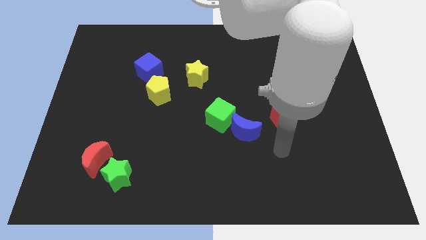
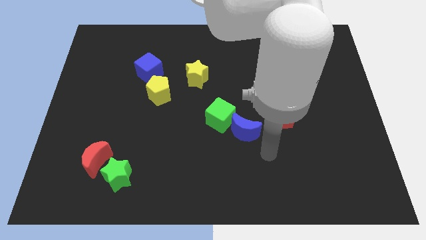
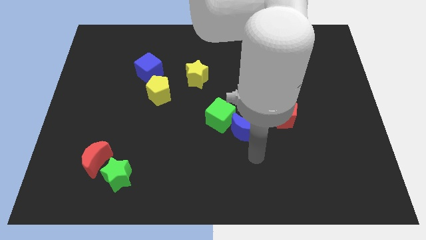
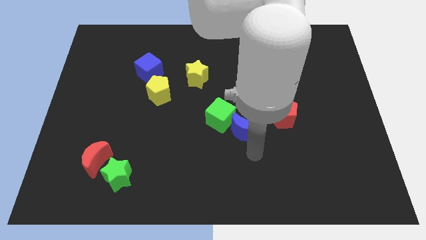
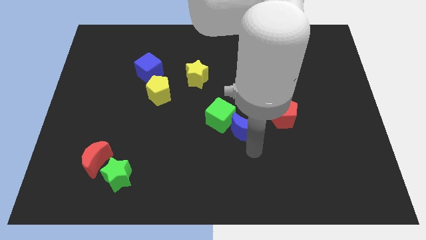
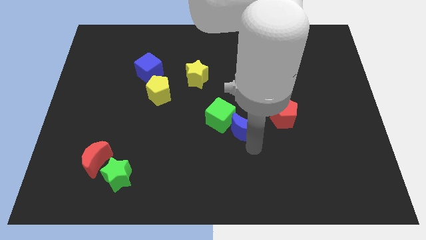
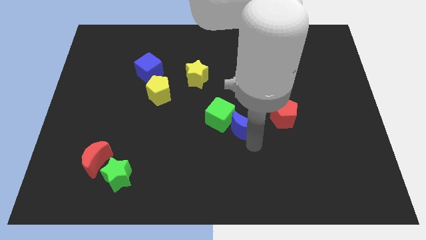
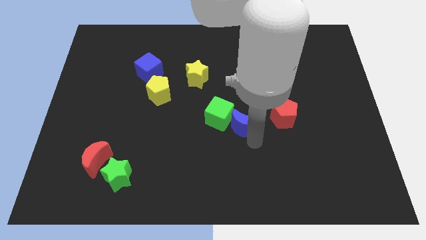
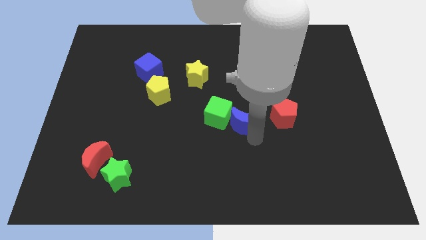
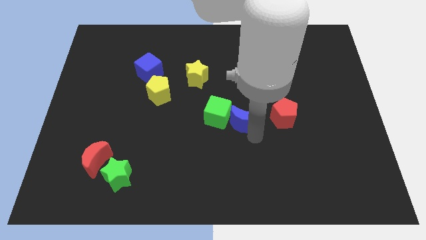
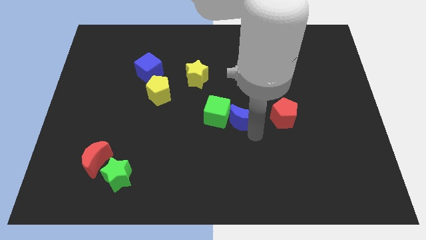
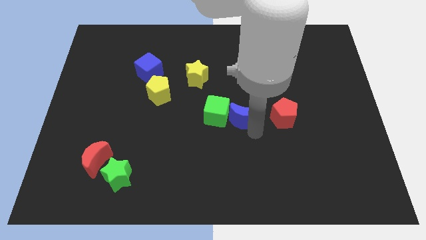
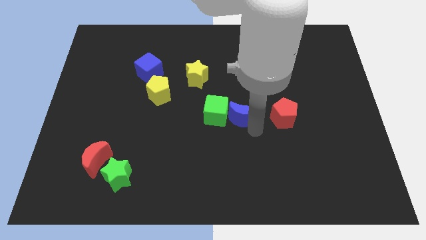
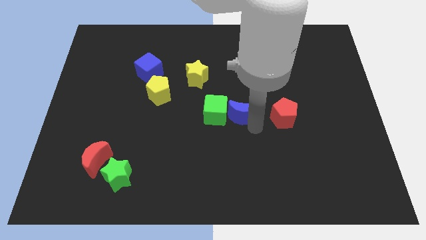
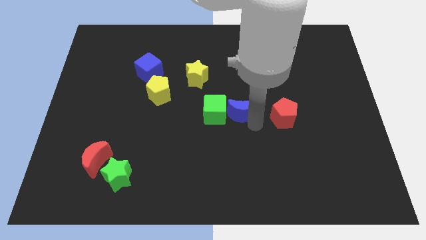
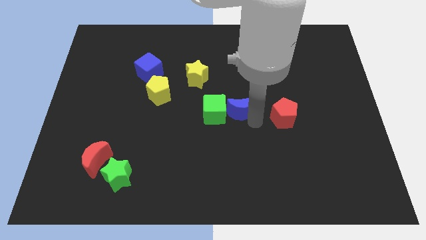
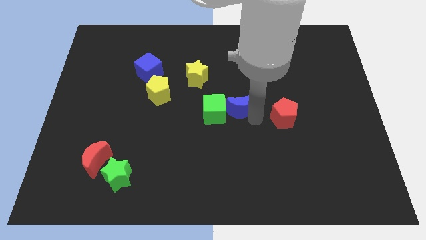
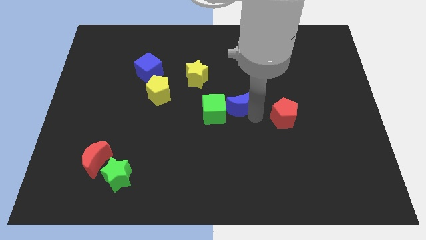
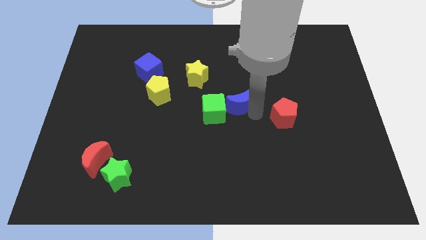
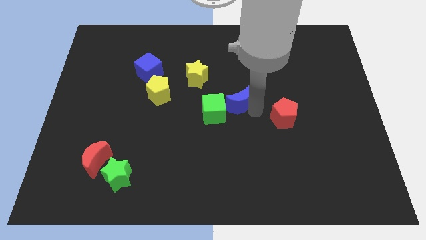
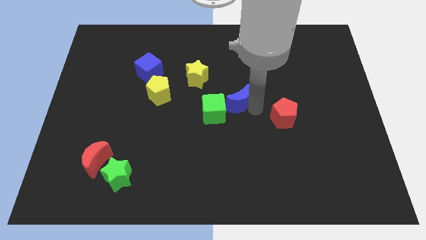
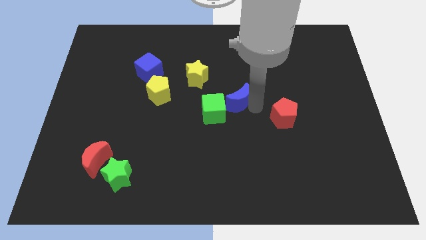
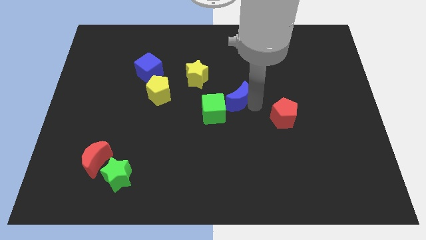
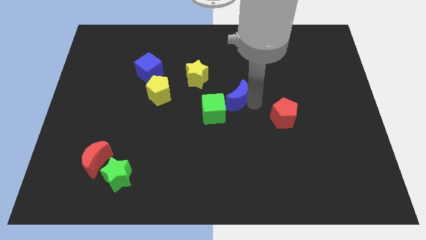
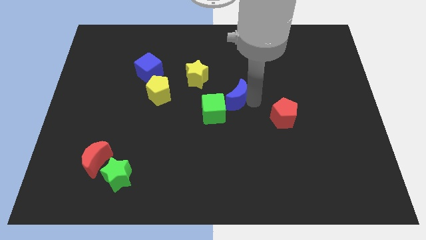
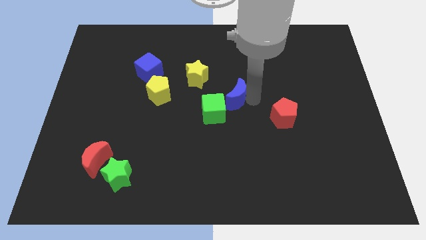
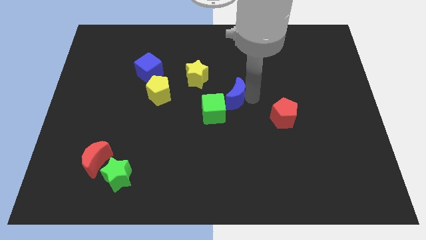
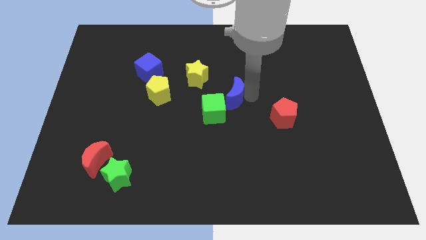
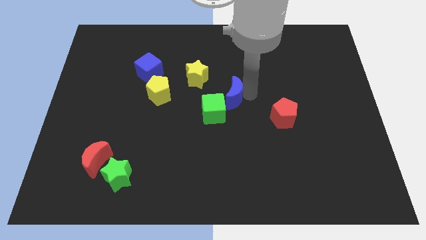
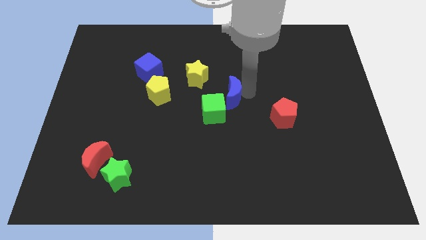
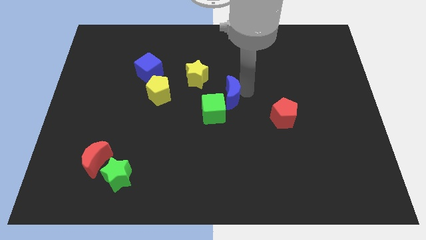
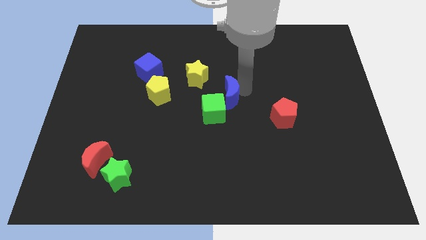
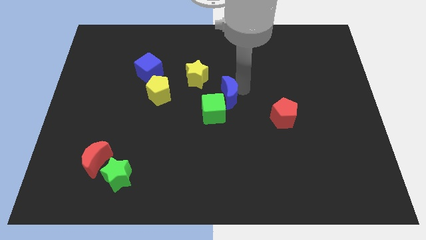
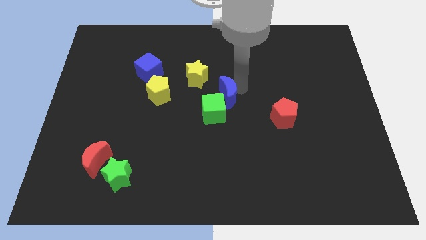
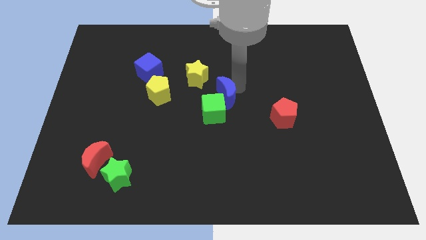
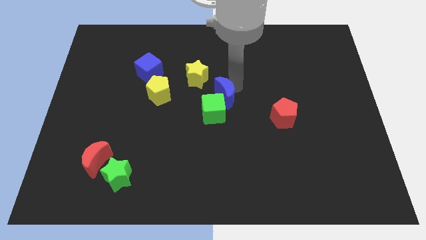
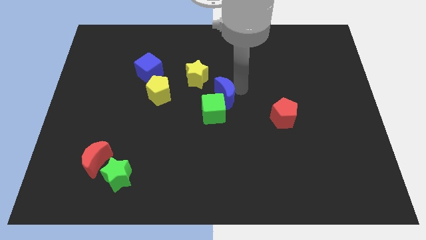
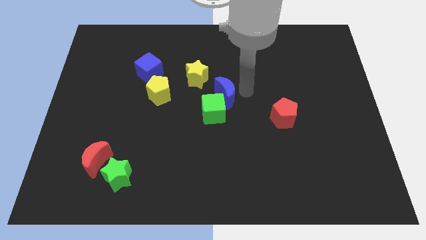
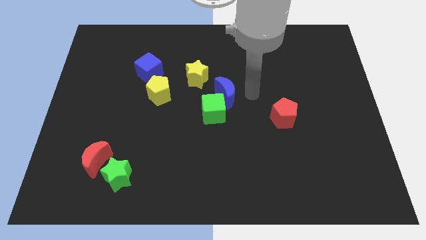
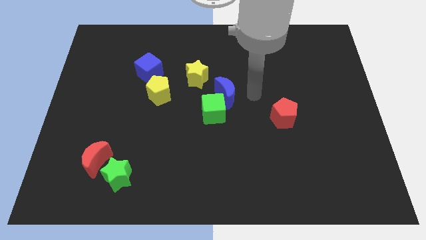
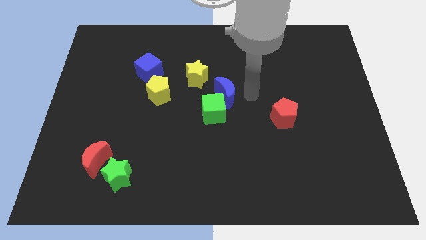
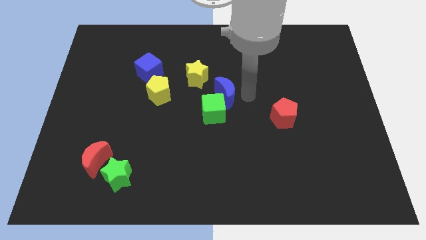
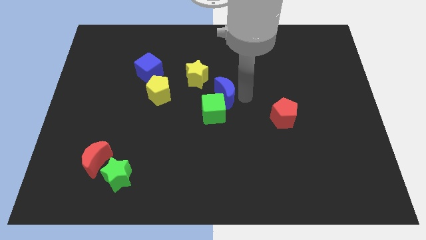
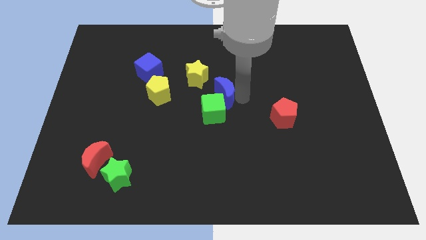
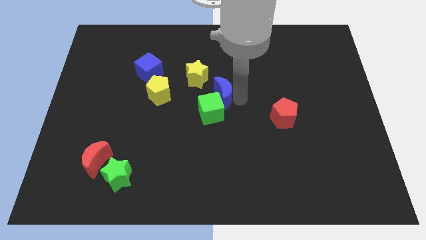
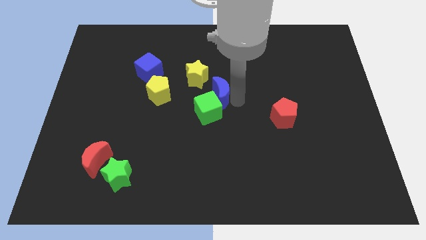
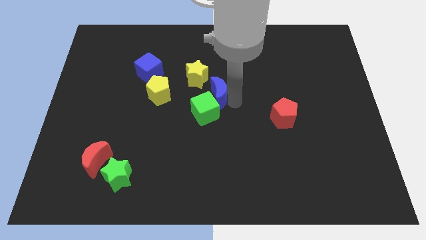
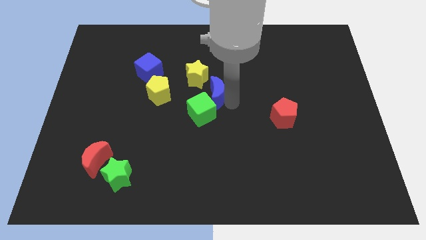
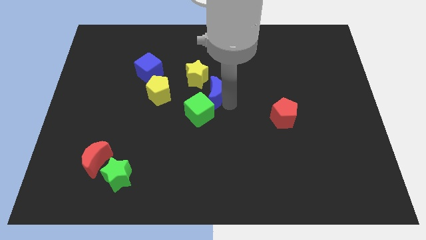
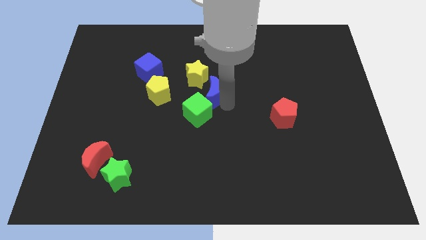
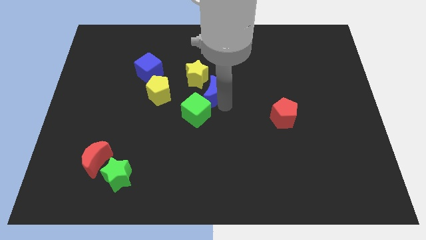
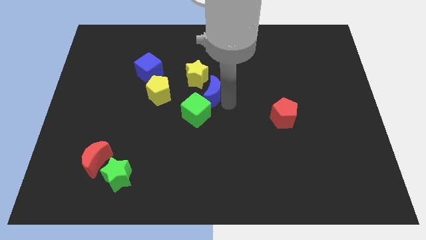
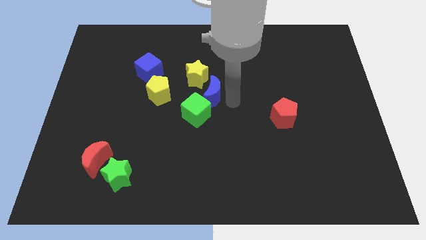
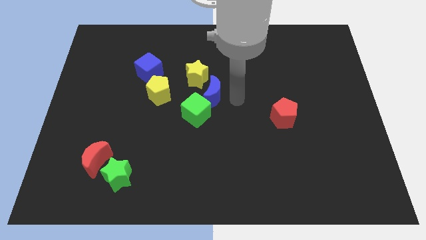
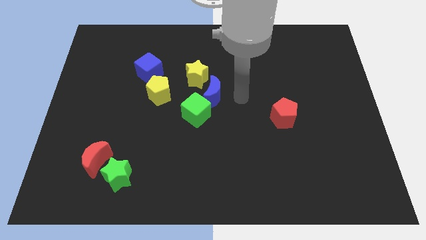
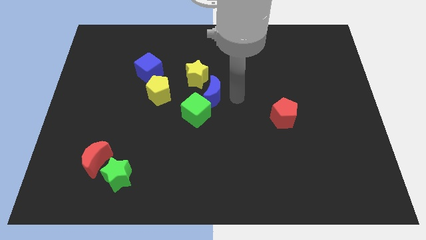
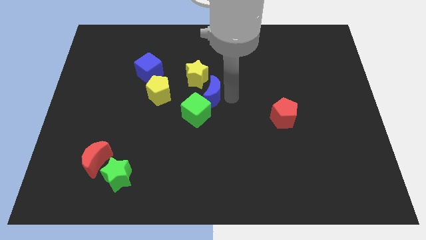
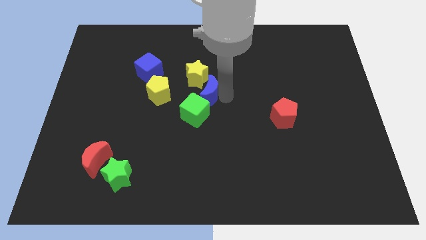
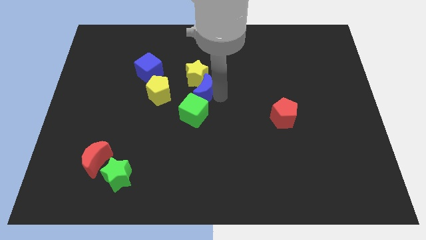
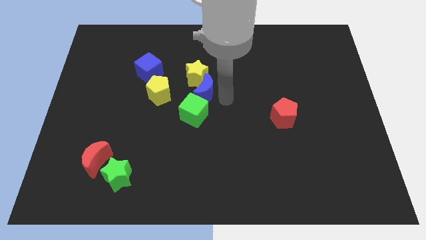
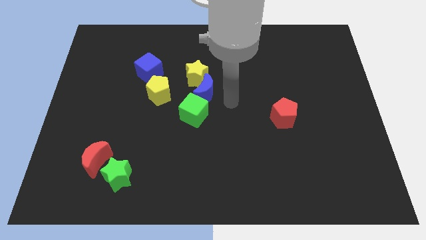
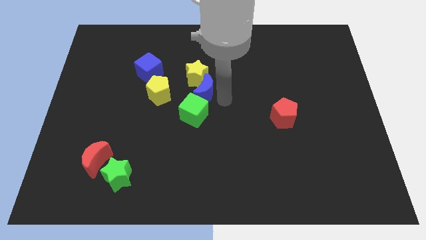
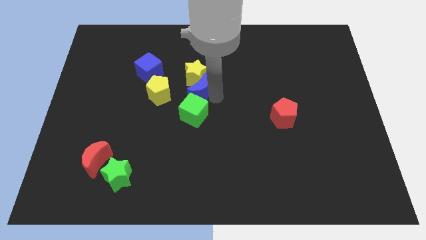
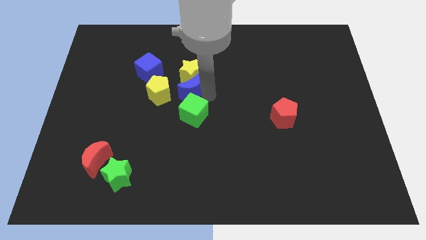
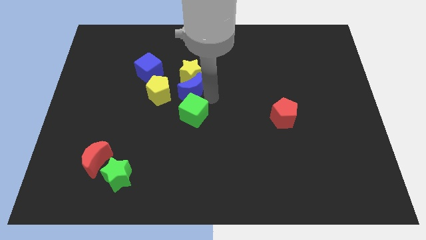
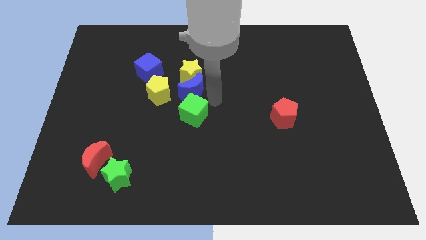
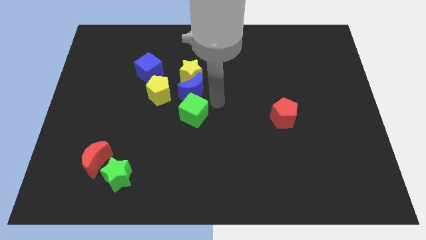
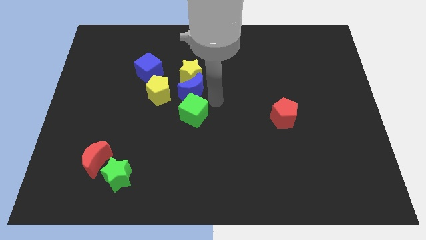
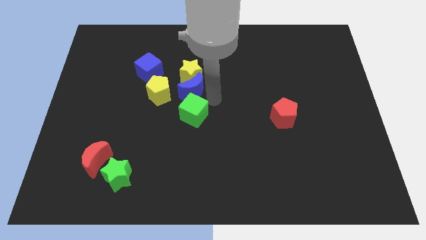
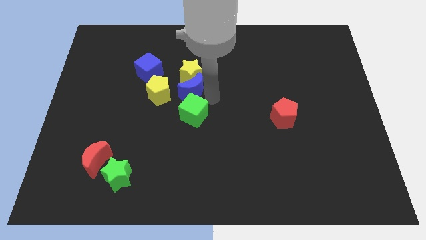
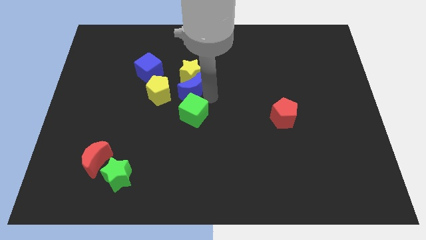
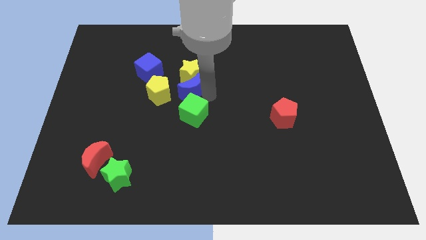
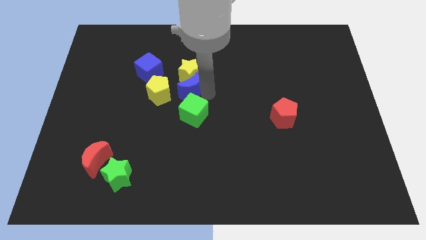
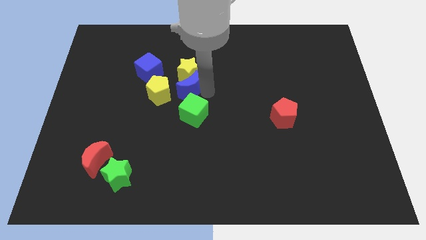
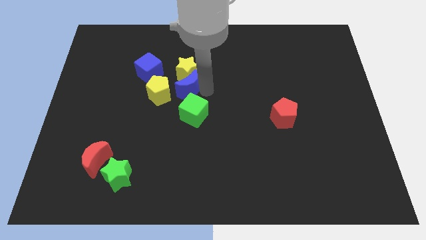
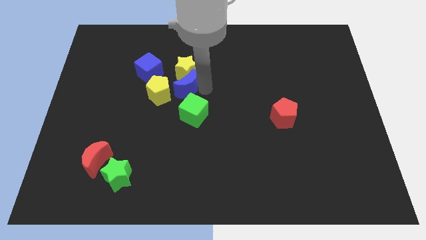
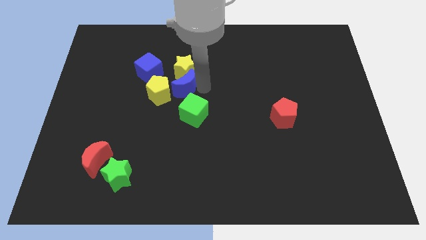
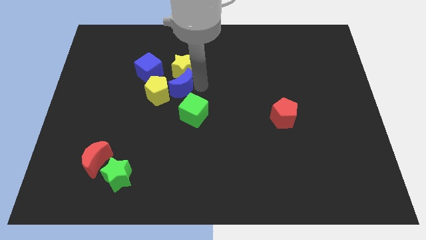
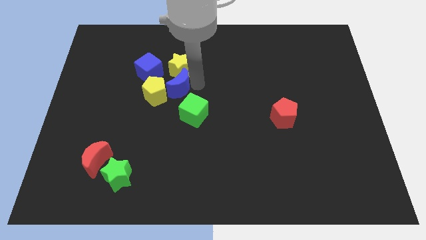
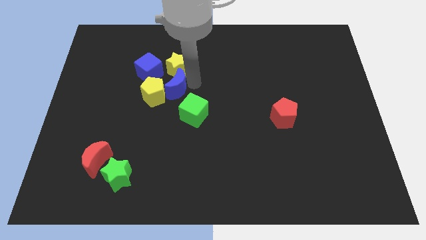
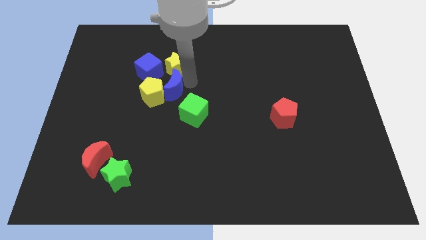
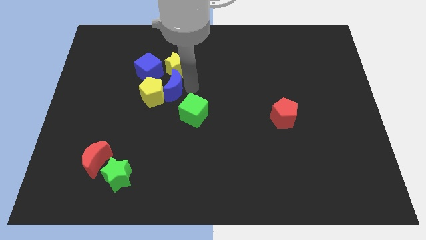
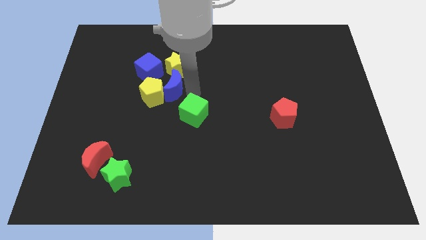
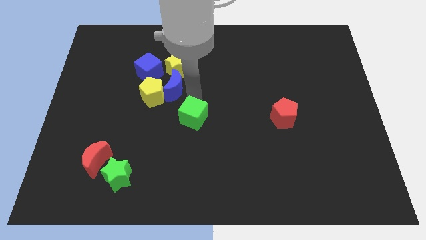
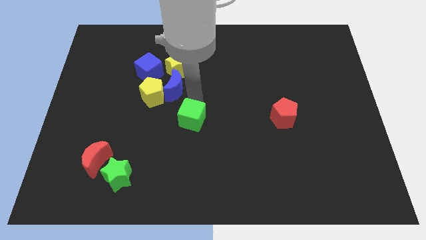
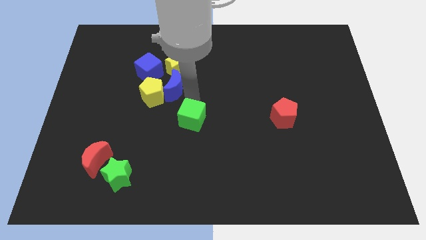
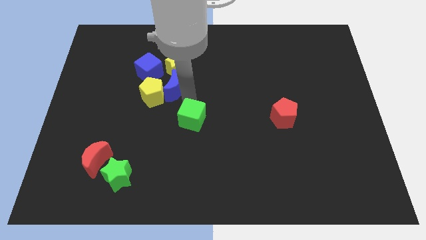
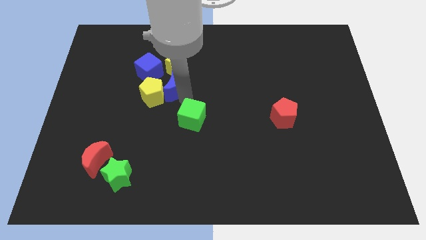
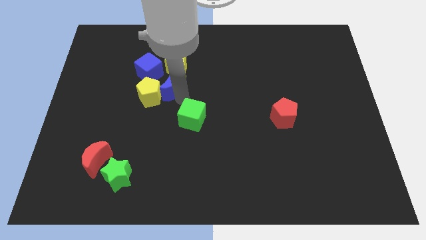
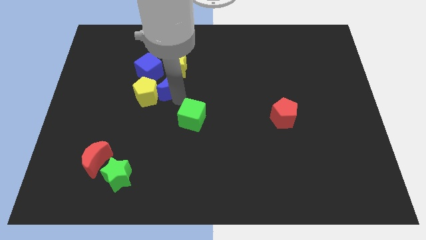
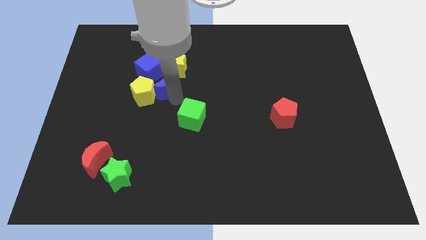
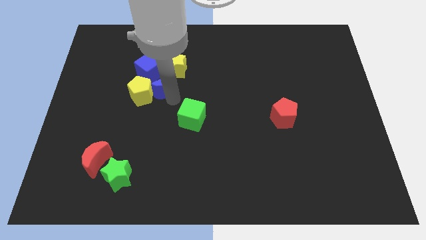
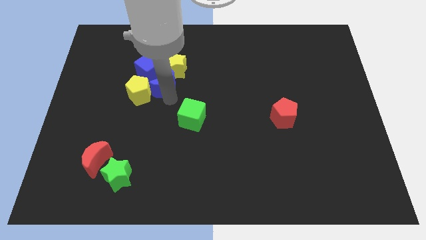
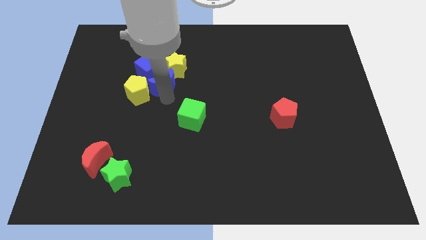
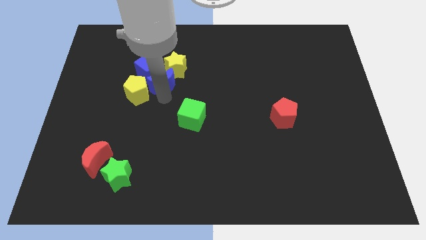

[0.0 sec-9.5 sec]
move the blue moon to the blue cube
